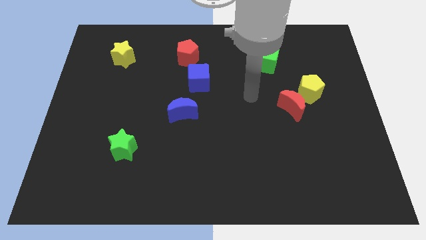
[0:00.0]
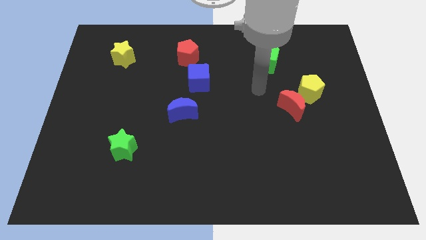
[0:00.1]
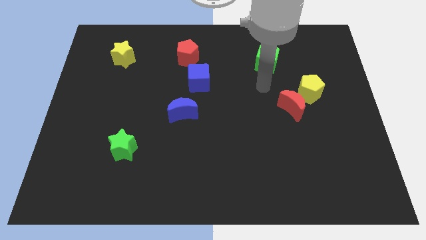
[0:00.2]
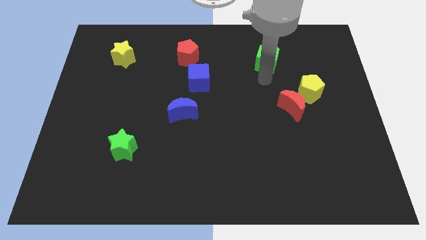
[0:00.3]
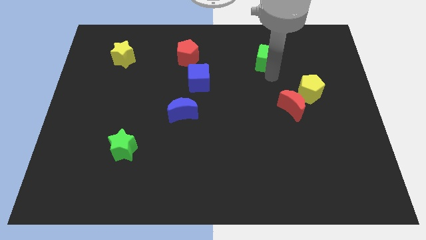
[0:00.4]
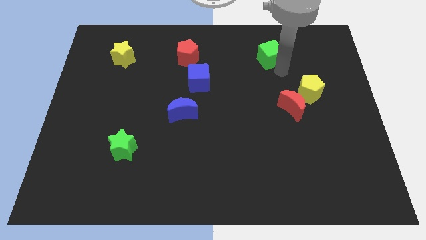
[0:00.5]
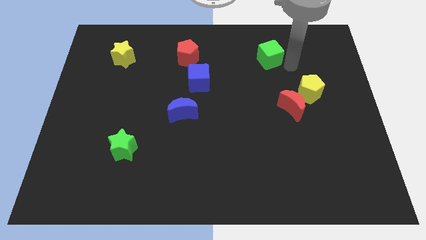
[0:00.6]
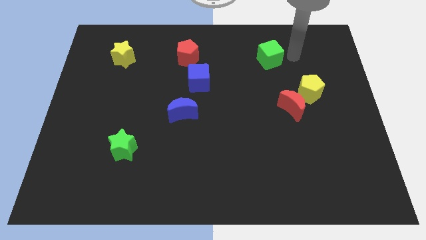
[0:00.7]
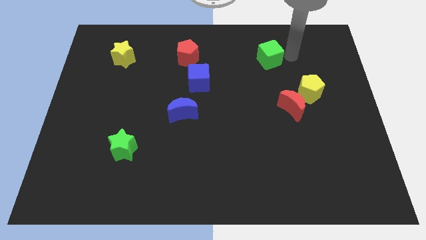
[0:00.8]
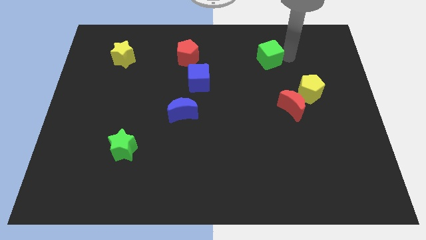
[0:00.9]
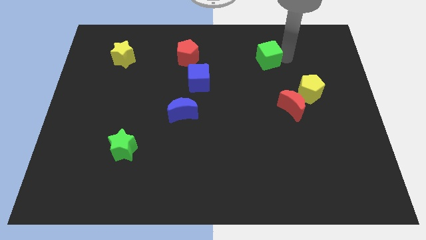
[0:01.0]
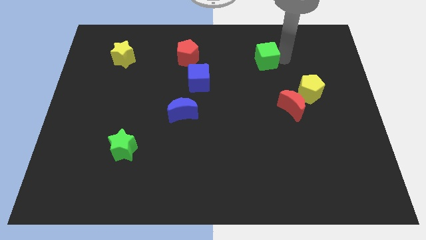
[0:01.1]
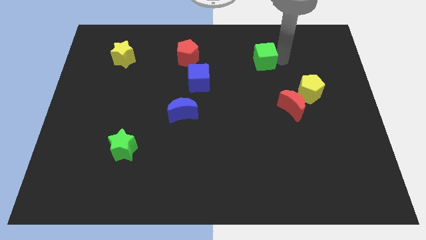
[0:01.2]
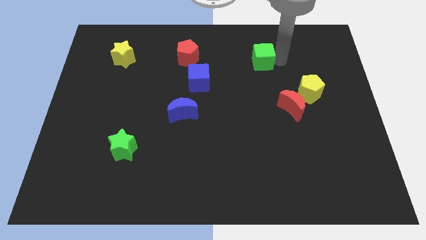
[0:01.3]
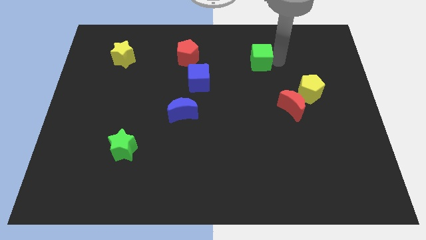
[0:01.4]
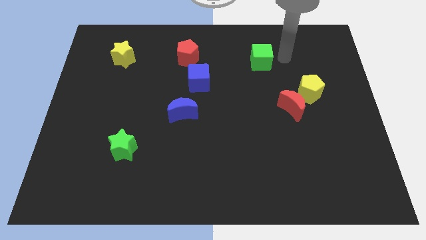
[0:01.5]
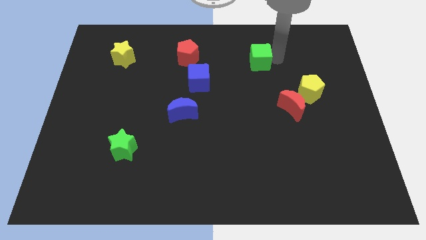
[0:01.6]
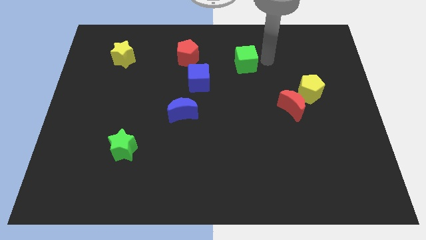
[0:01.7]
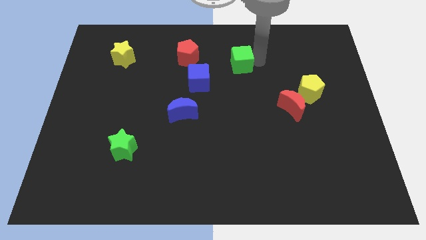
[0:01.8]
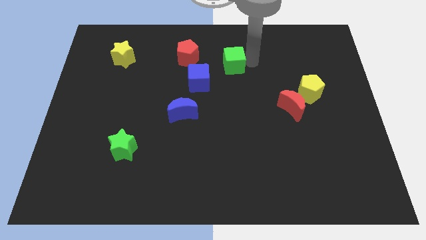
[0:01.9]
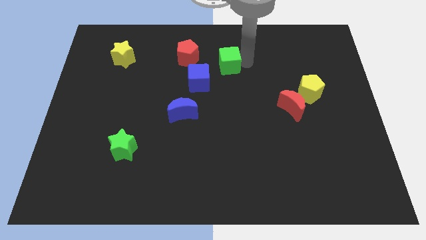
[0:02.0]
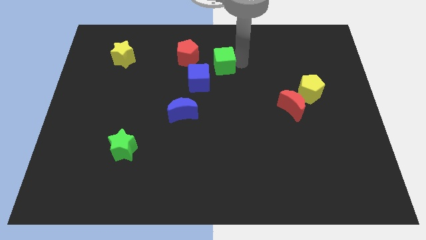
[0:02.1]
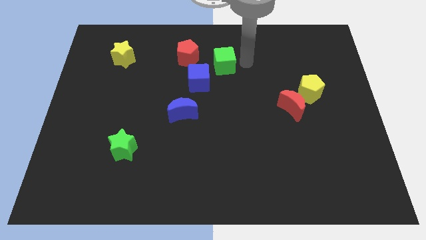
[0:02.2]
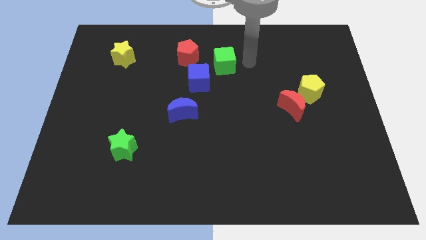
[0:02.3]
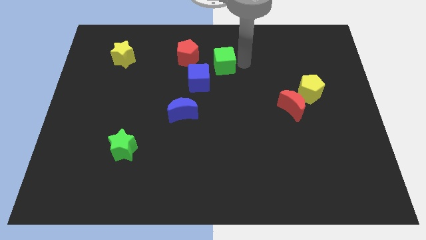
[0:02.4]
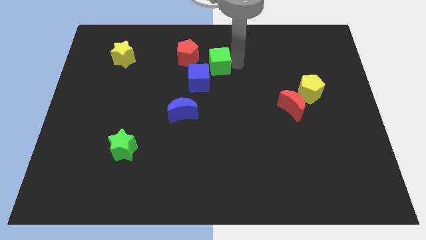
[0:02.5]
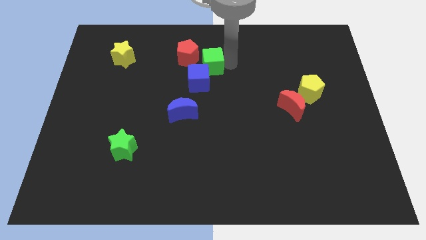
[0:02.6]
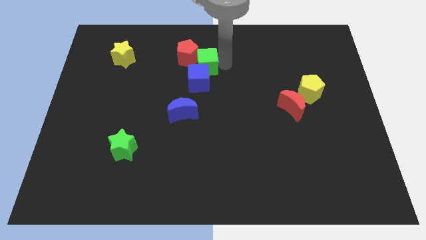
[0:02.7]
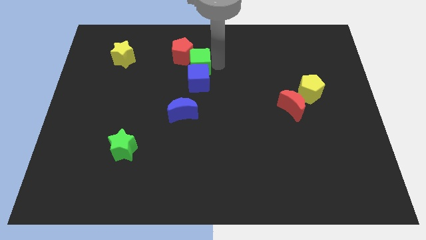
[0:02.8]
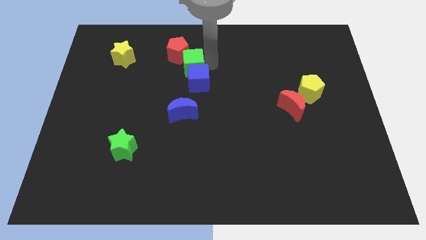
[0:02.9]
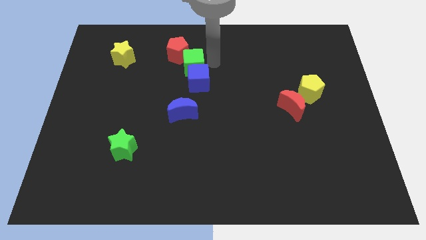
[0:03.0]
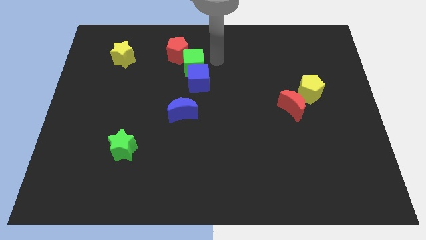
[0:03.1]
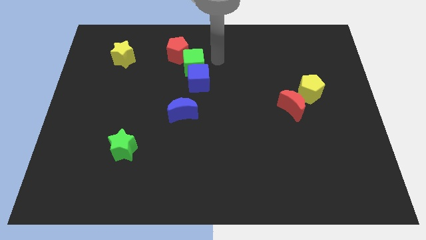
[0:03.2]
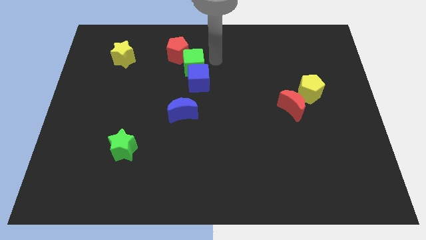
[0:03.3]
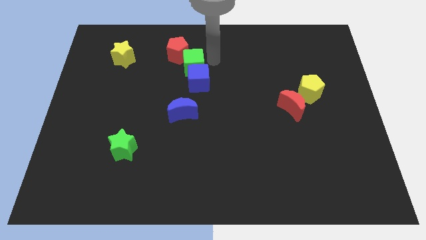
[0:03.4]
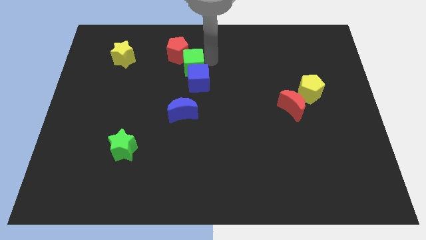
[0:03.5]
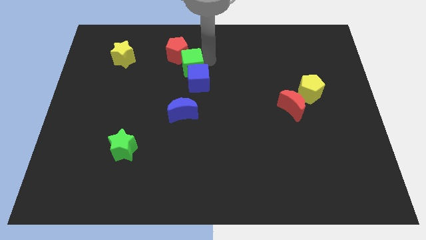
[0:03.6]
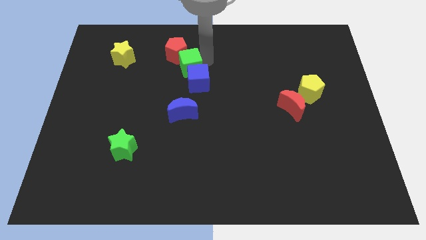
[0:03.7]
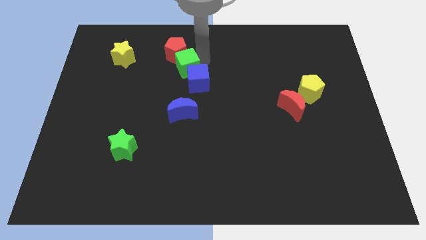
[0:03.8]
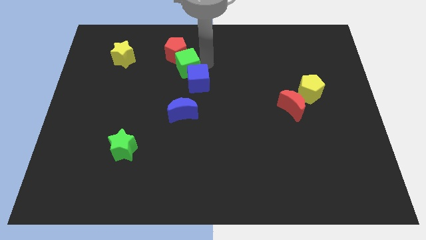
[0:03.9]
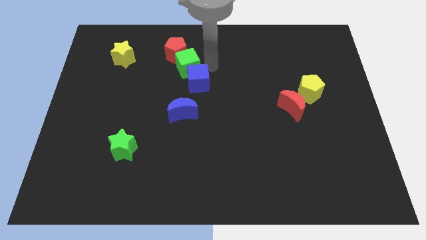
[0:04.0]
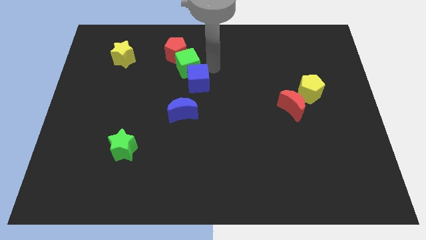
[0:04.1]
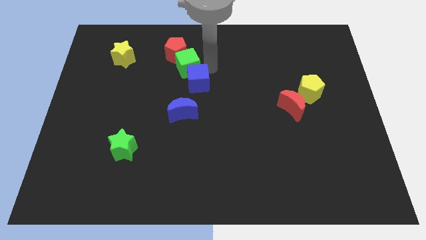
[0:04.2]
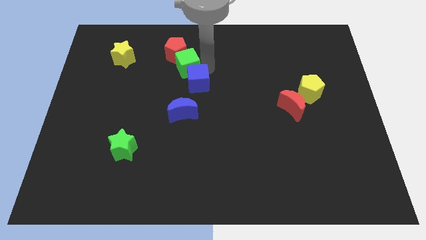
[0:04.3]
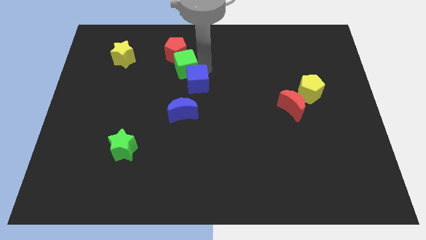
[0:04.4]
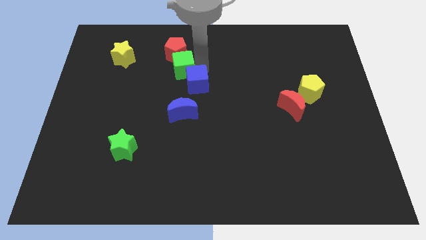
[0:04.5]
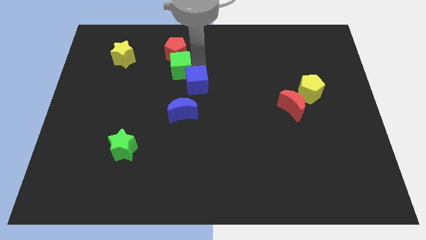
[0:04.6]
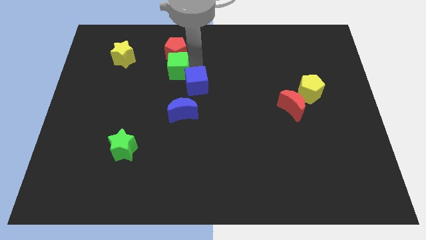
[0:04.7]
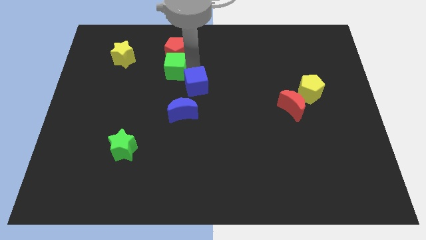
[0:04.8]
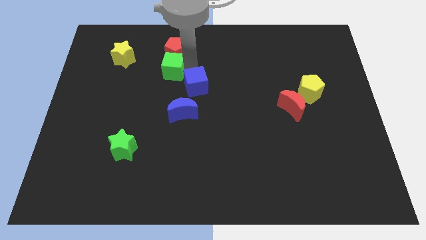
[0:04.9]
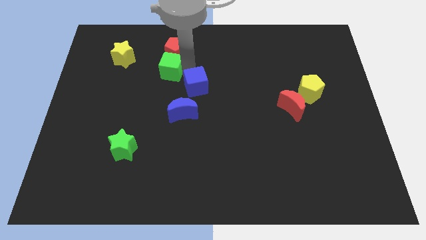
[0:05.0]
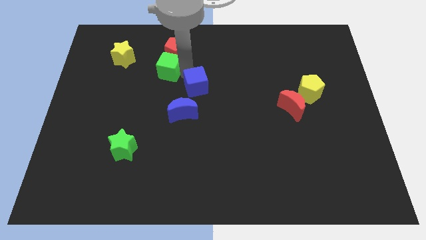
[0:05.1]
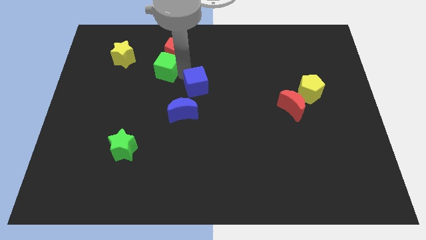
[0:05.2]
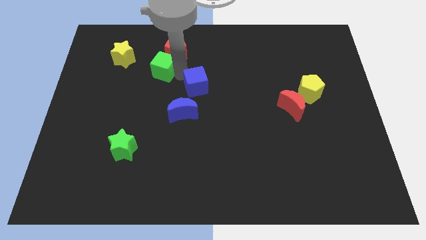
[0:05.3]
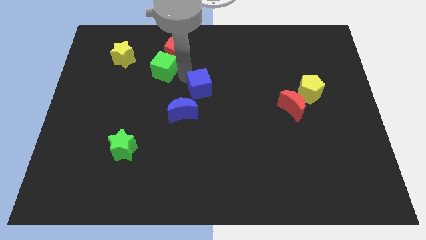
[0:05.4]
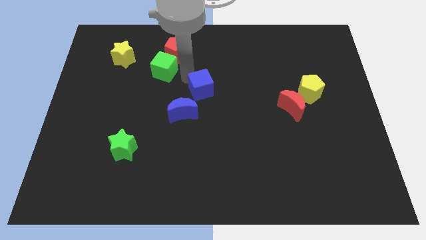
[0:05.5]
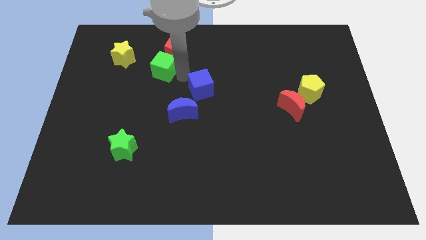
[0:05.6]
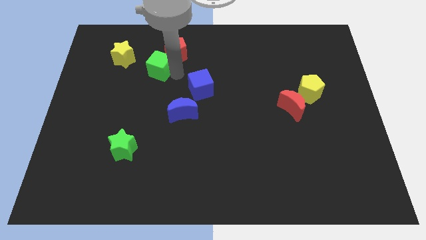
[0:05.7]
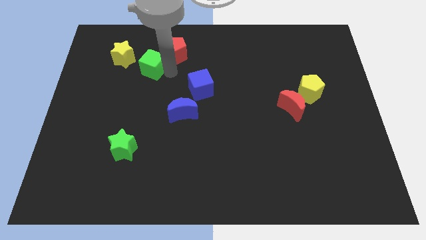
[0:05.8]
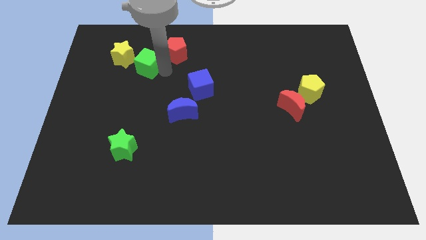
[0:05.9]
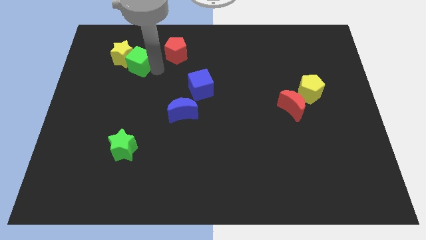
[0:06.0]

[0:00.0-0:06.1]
move the green cube next to the yellow star

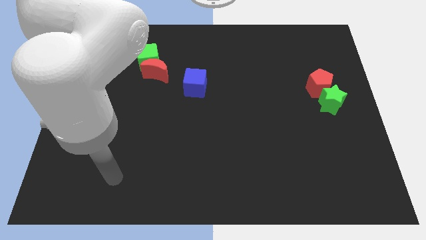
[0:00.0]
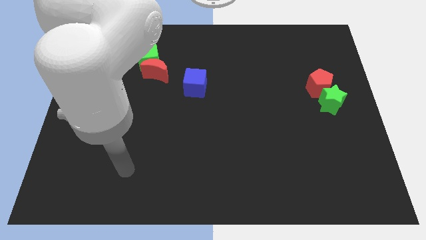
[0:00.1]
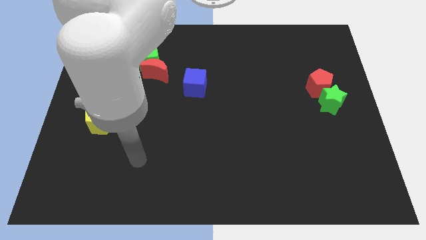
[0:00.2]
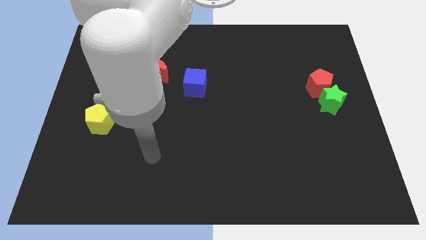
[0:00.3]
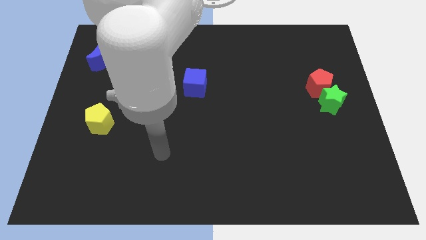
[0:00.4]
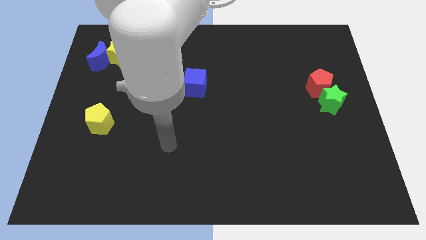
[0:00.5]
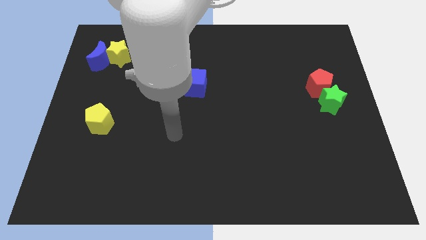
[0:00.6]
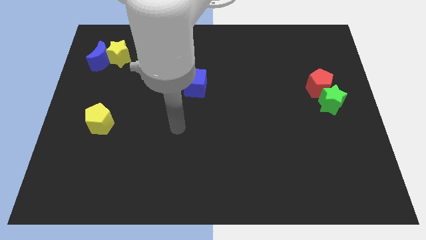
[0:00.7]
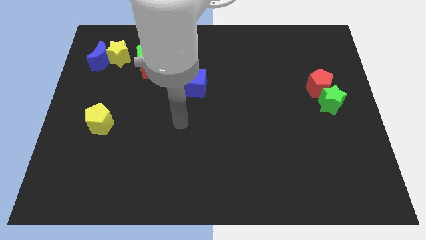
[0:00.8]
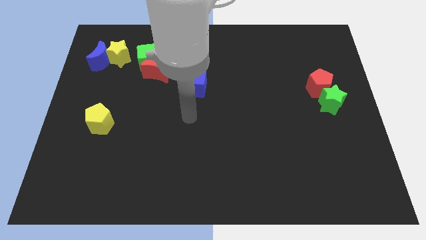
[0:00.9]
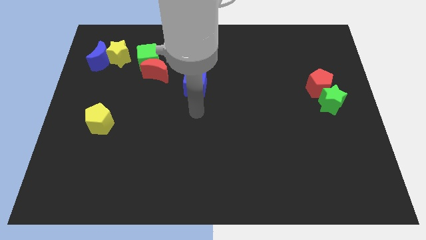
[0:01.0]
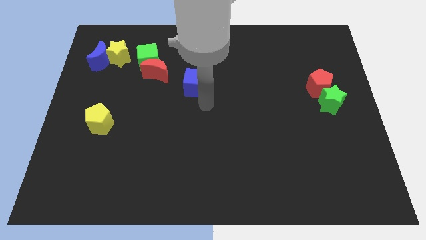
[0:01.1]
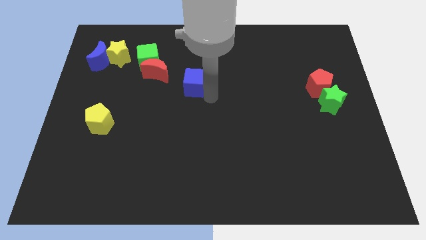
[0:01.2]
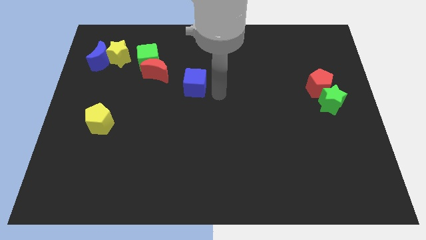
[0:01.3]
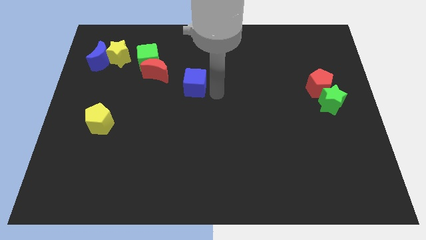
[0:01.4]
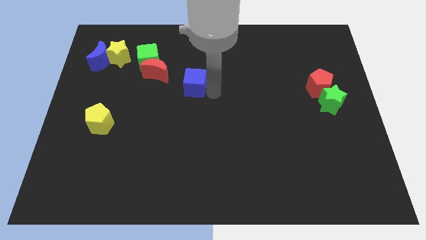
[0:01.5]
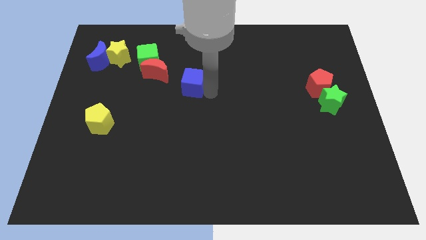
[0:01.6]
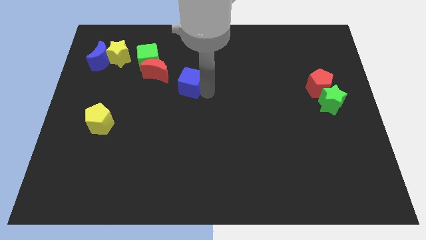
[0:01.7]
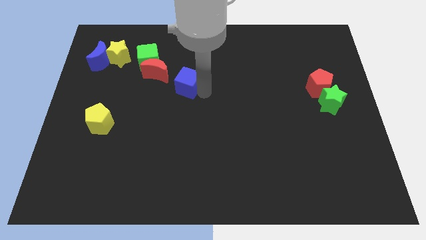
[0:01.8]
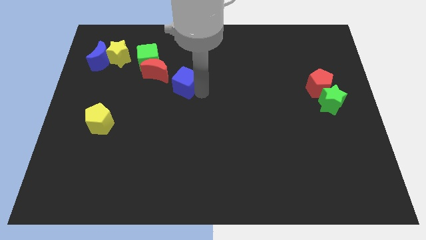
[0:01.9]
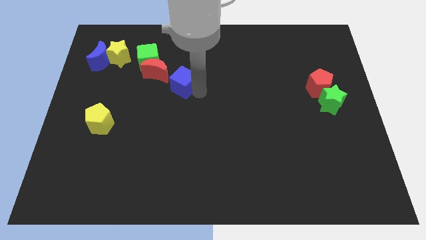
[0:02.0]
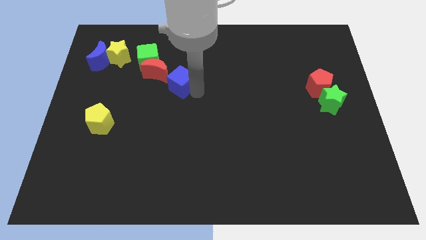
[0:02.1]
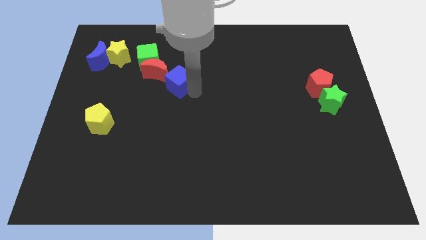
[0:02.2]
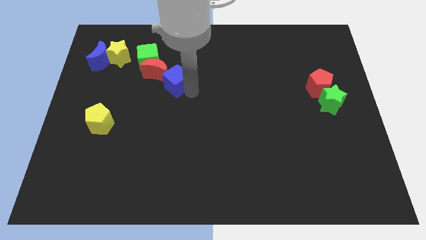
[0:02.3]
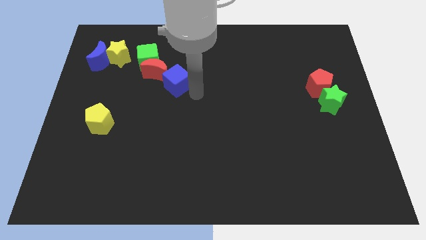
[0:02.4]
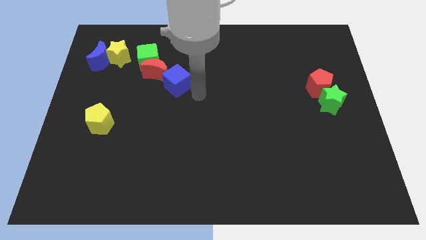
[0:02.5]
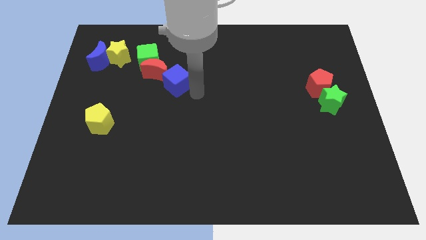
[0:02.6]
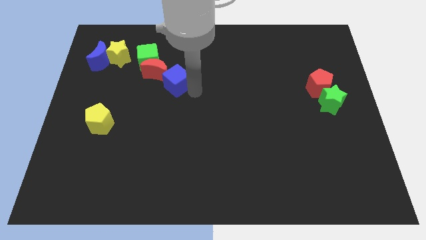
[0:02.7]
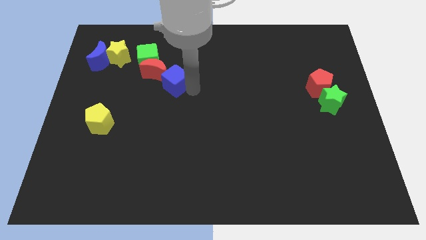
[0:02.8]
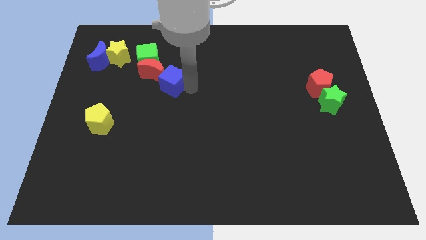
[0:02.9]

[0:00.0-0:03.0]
slide the blue cube close to the red moon
